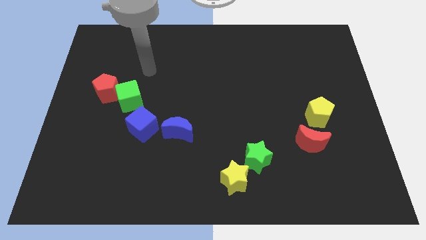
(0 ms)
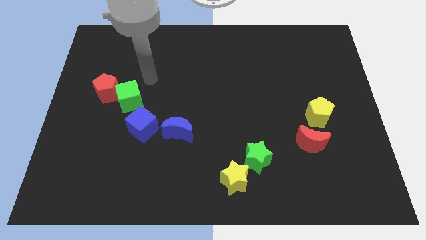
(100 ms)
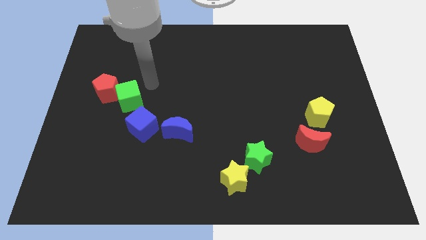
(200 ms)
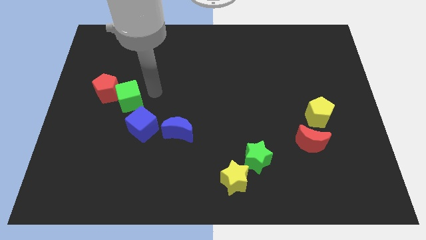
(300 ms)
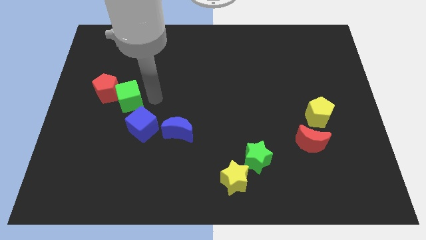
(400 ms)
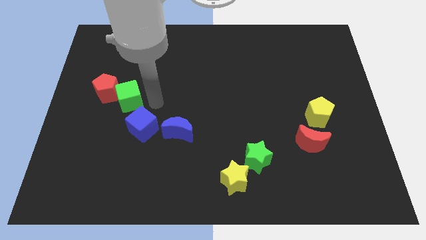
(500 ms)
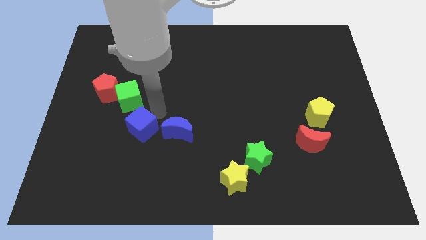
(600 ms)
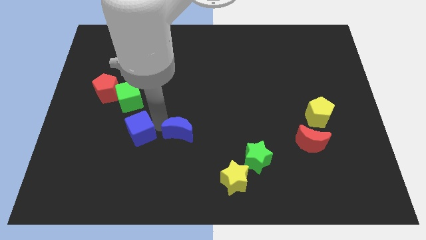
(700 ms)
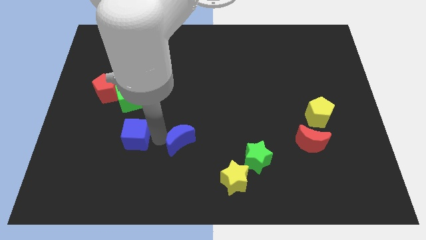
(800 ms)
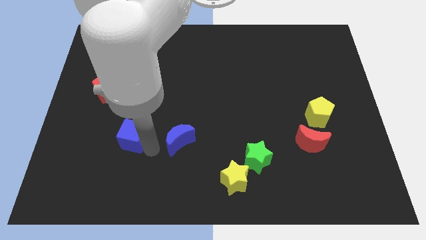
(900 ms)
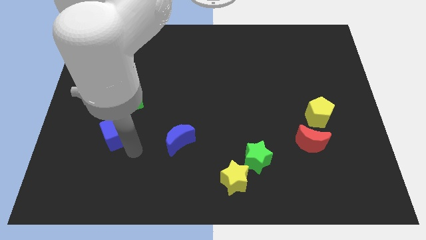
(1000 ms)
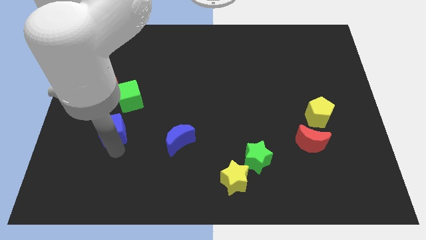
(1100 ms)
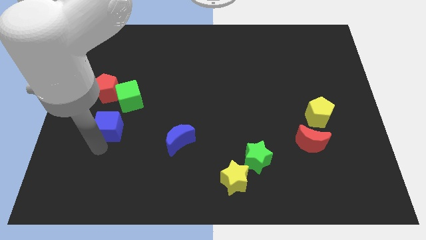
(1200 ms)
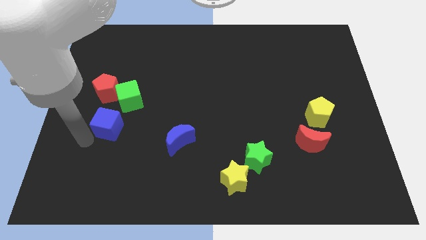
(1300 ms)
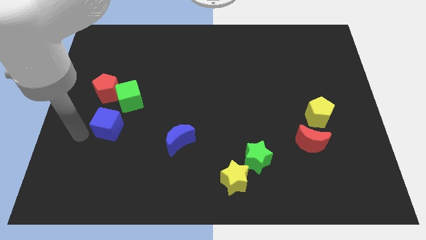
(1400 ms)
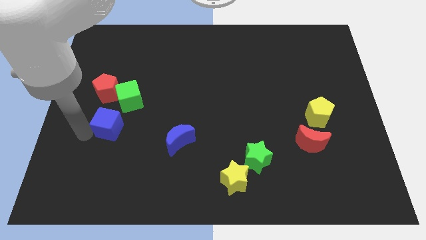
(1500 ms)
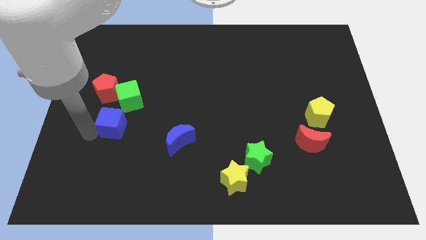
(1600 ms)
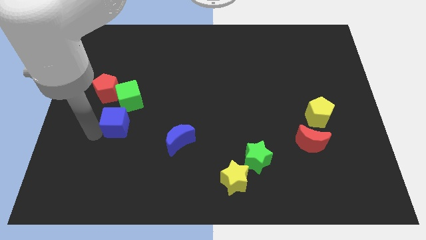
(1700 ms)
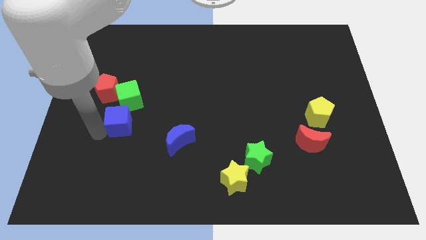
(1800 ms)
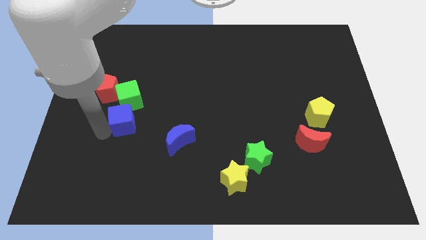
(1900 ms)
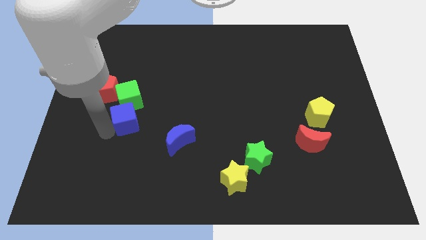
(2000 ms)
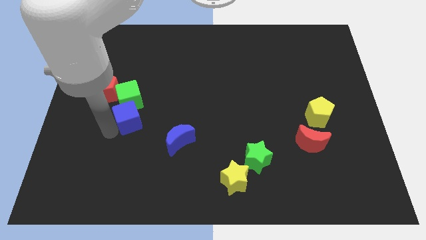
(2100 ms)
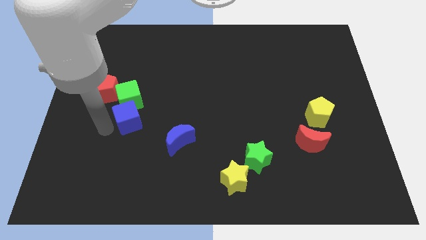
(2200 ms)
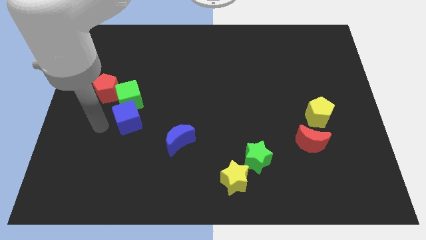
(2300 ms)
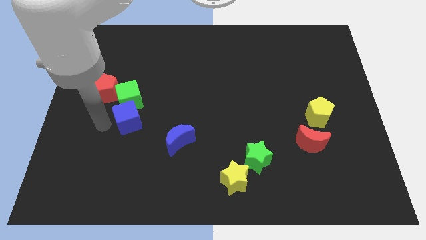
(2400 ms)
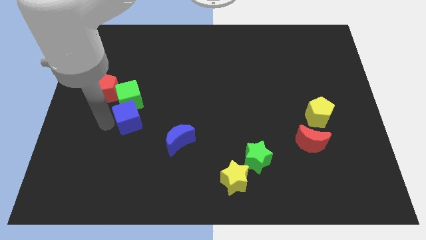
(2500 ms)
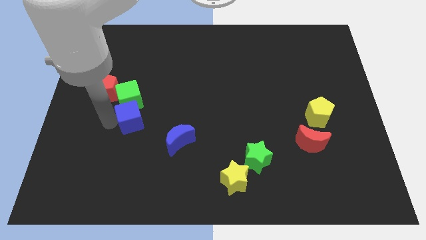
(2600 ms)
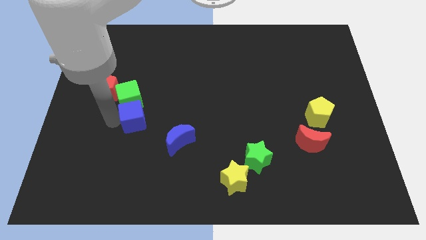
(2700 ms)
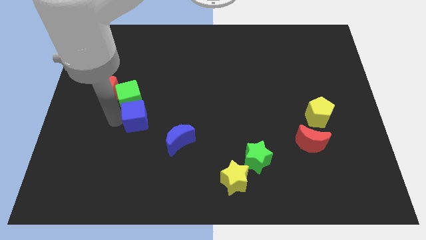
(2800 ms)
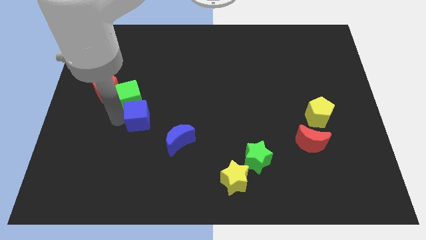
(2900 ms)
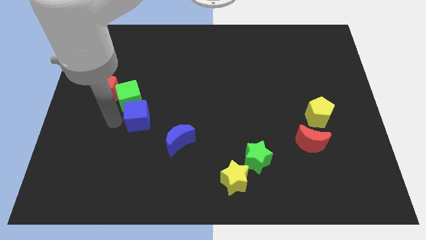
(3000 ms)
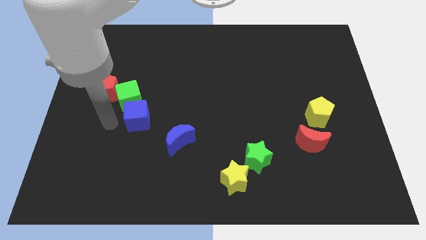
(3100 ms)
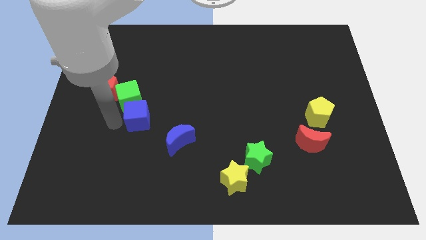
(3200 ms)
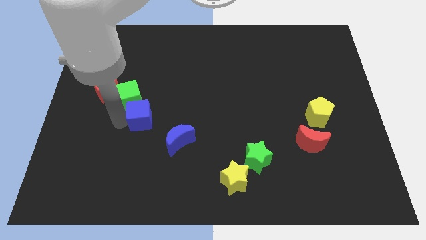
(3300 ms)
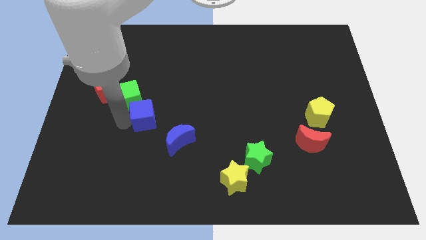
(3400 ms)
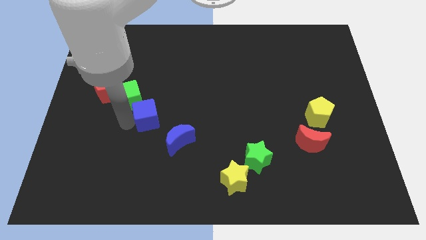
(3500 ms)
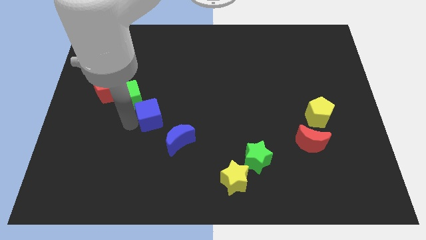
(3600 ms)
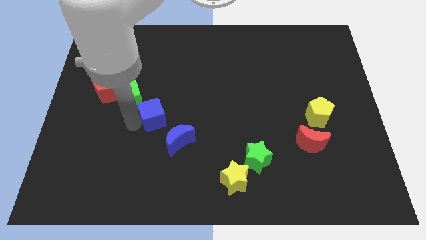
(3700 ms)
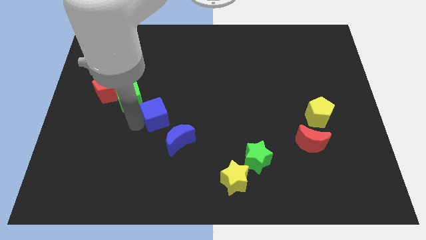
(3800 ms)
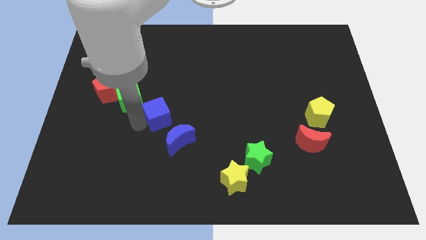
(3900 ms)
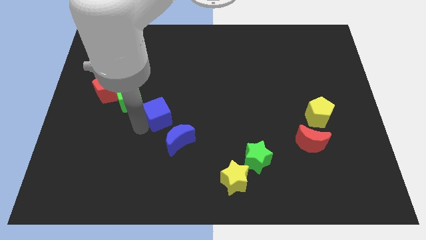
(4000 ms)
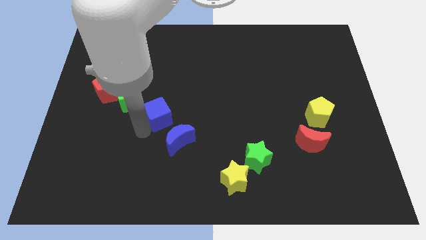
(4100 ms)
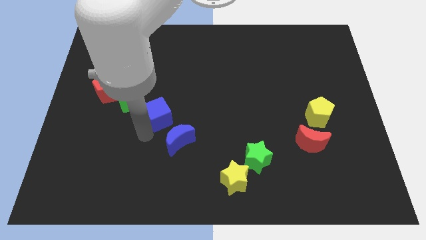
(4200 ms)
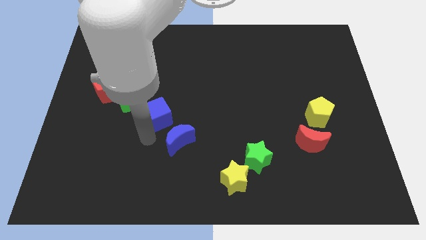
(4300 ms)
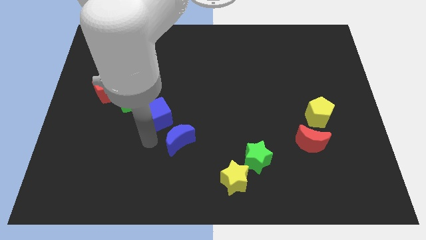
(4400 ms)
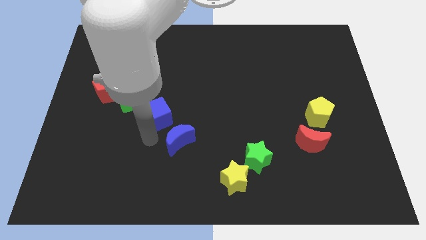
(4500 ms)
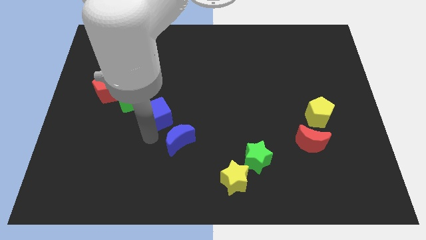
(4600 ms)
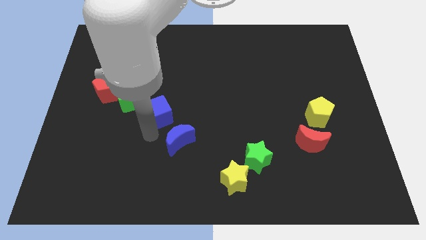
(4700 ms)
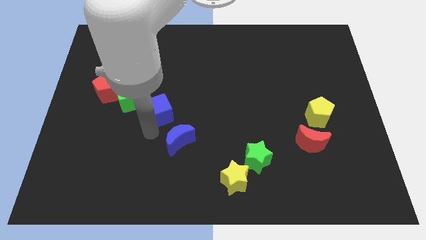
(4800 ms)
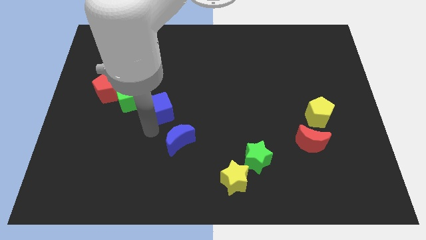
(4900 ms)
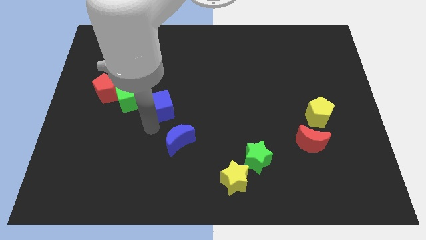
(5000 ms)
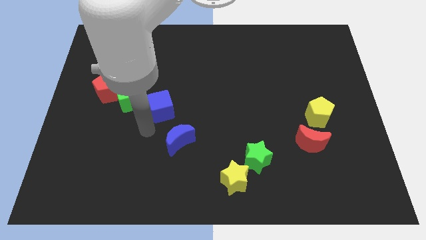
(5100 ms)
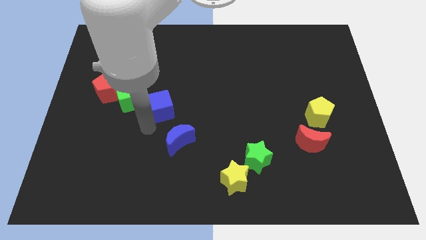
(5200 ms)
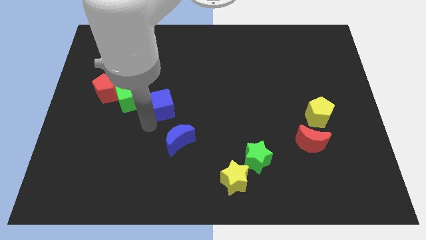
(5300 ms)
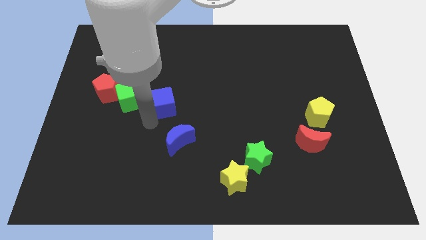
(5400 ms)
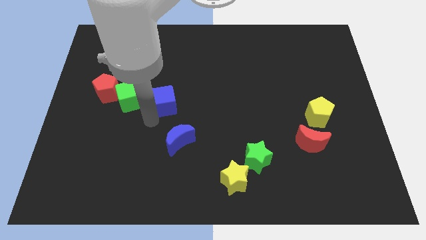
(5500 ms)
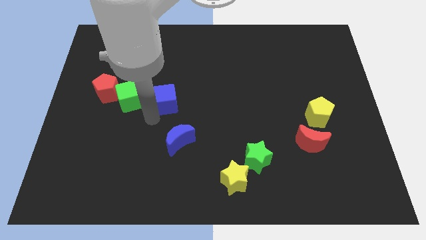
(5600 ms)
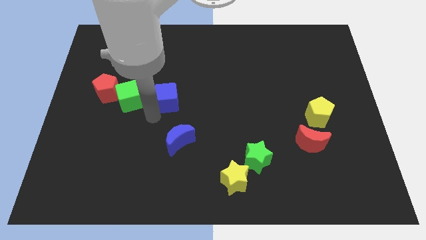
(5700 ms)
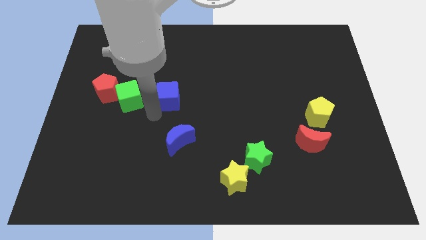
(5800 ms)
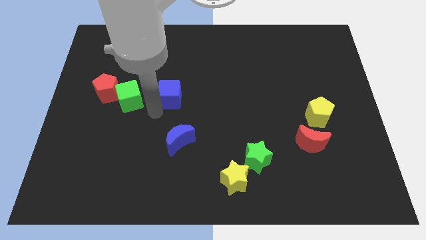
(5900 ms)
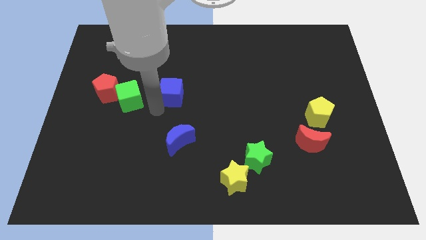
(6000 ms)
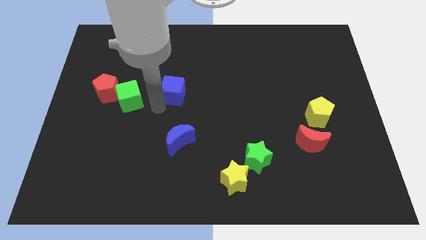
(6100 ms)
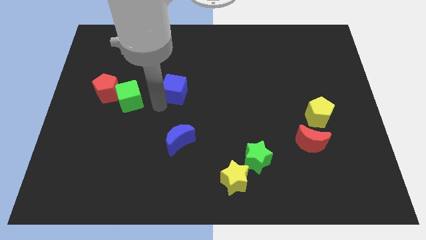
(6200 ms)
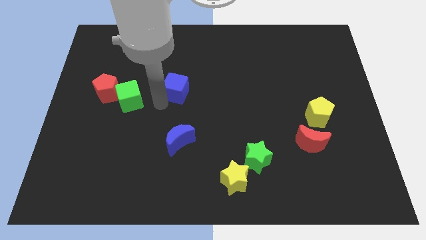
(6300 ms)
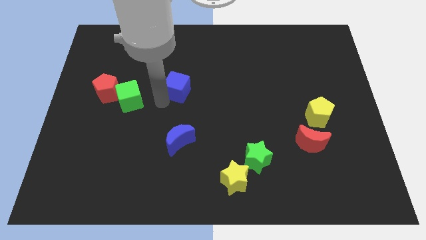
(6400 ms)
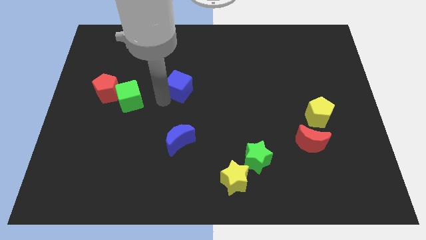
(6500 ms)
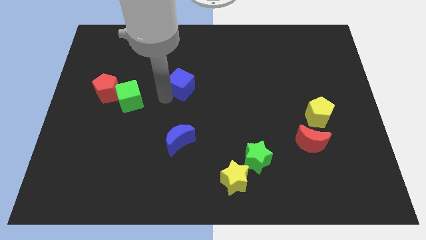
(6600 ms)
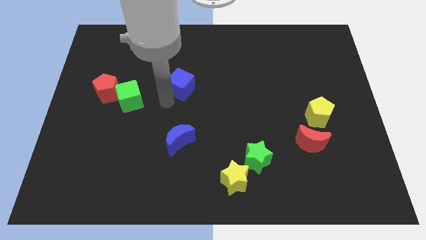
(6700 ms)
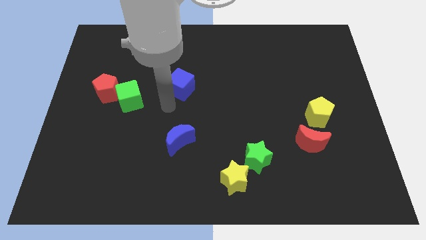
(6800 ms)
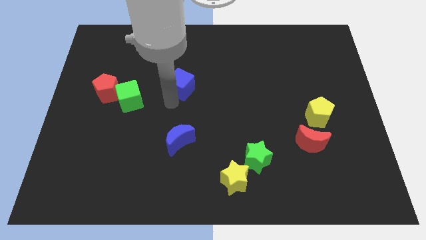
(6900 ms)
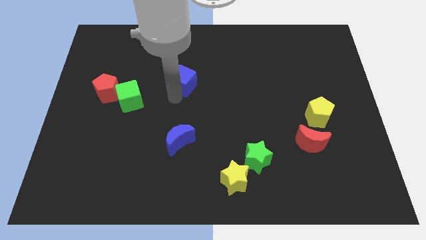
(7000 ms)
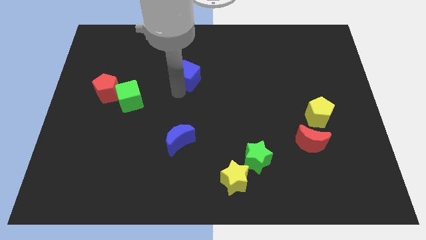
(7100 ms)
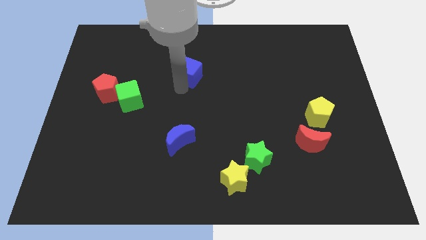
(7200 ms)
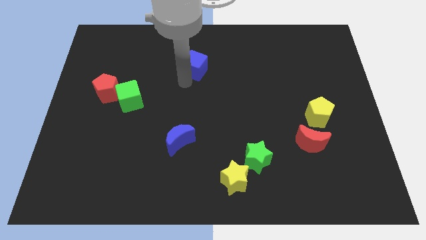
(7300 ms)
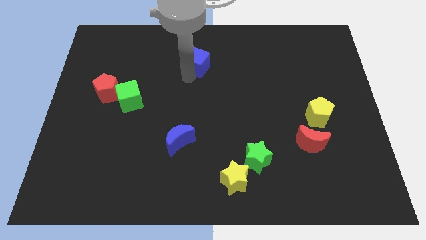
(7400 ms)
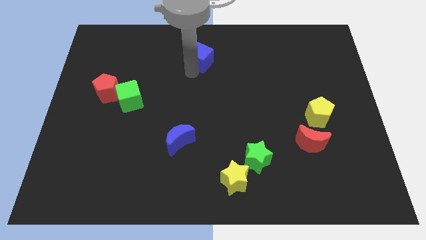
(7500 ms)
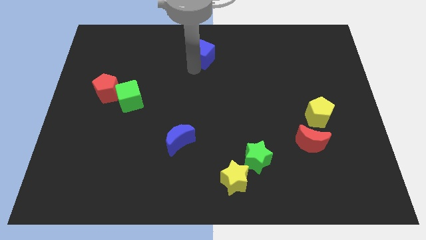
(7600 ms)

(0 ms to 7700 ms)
push the blue cube to the top side
